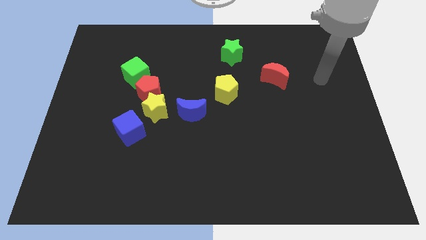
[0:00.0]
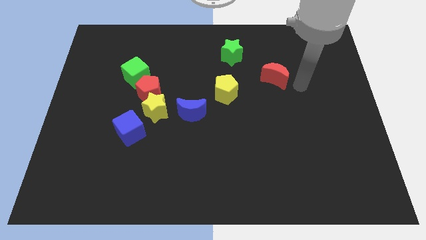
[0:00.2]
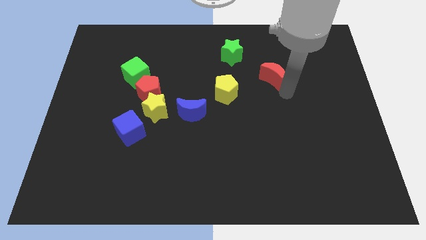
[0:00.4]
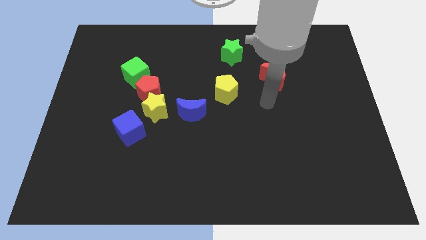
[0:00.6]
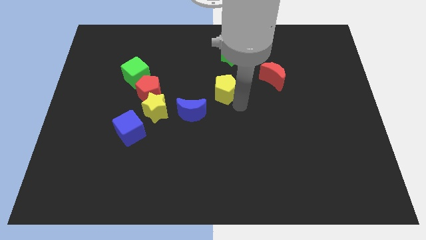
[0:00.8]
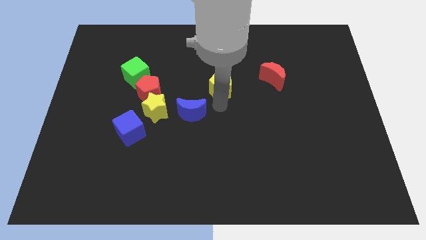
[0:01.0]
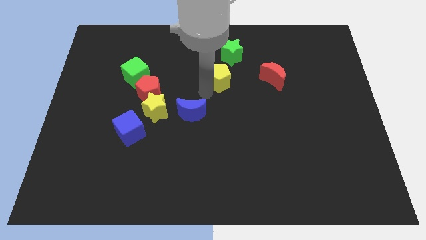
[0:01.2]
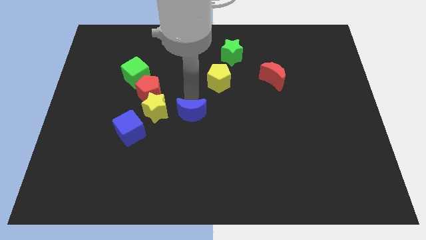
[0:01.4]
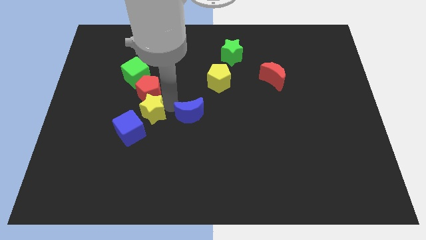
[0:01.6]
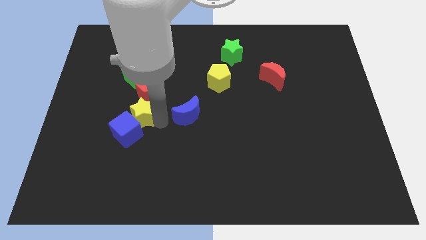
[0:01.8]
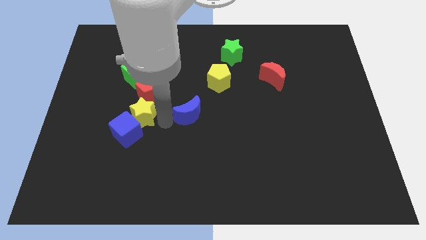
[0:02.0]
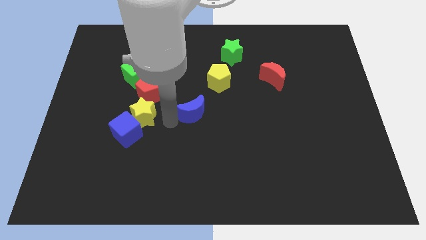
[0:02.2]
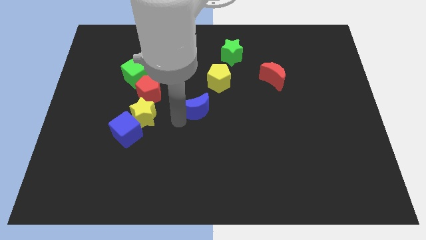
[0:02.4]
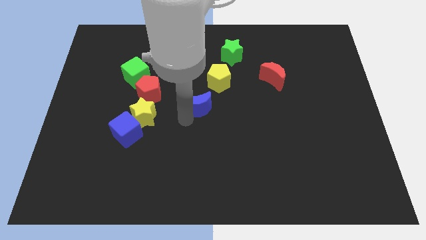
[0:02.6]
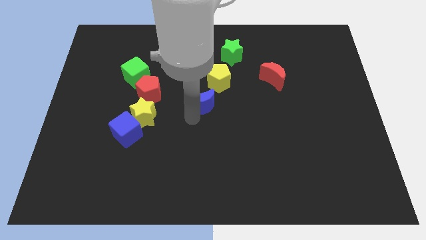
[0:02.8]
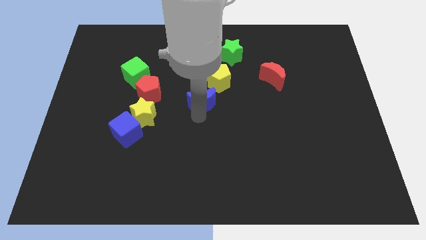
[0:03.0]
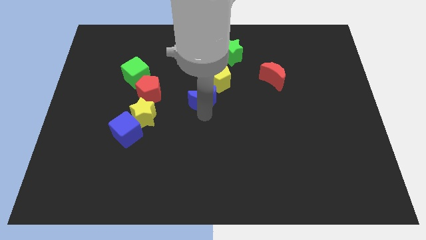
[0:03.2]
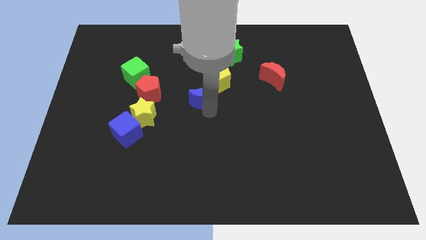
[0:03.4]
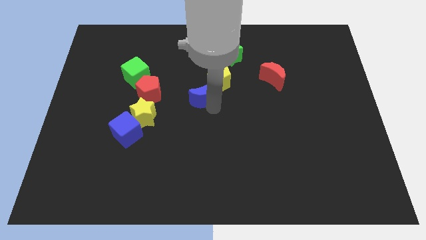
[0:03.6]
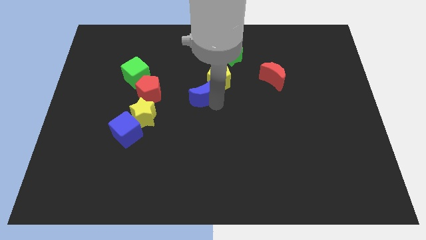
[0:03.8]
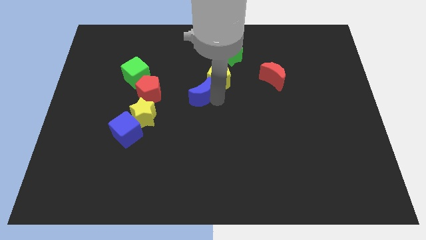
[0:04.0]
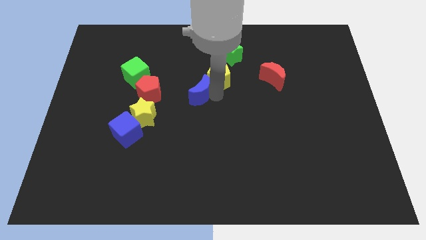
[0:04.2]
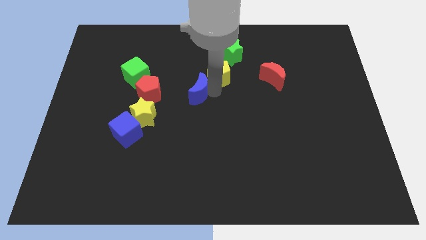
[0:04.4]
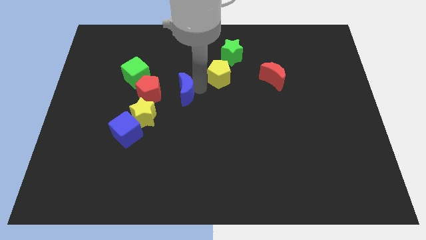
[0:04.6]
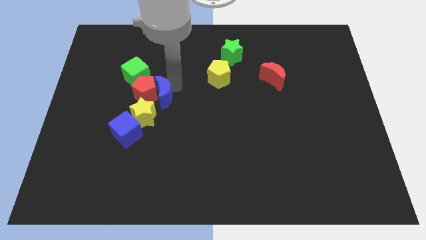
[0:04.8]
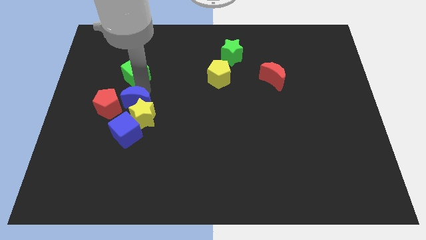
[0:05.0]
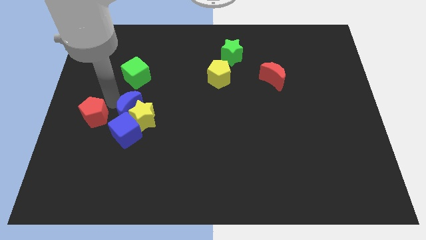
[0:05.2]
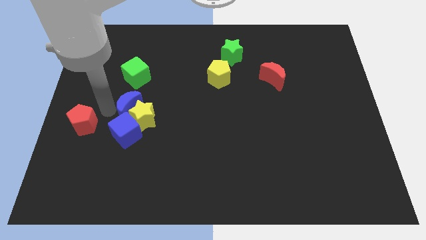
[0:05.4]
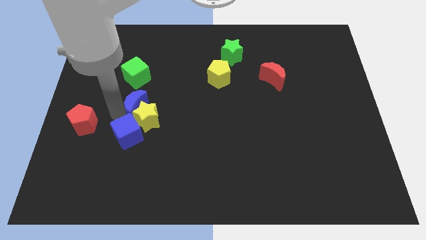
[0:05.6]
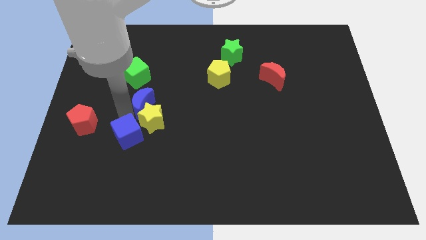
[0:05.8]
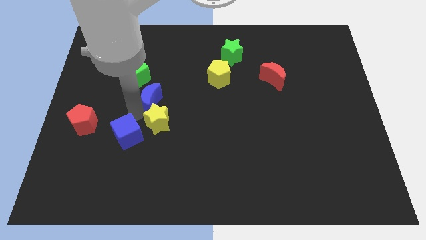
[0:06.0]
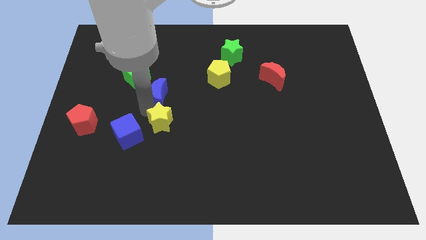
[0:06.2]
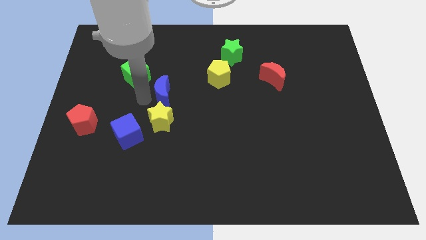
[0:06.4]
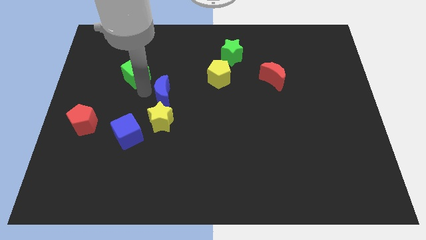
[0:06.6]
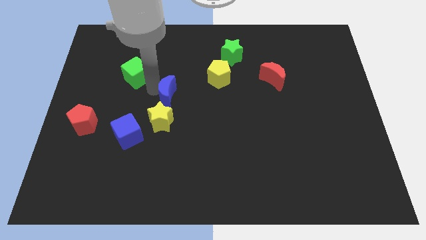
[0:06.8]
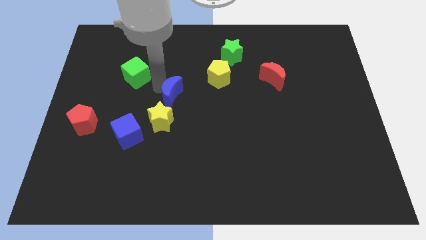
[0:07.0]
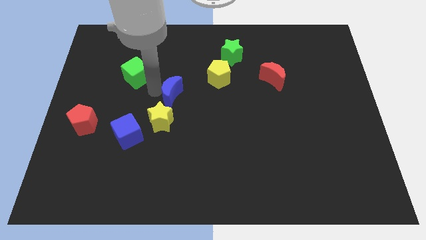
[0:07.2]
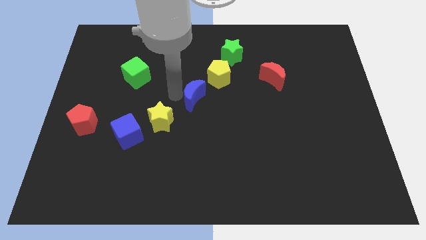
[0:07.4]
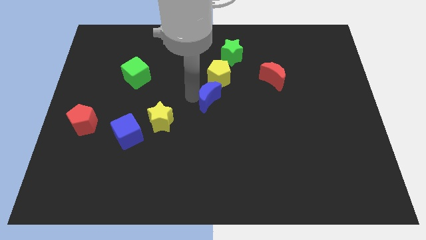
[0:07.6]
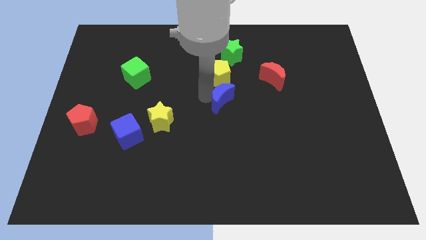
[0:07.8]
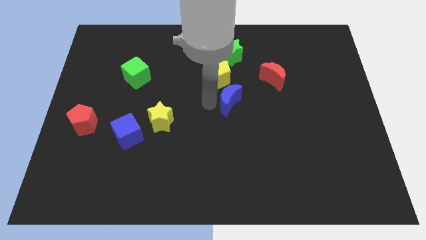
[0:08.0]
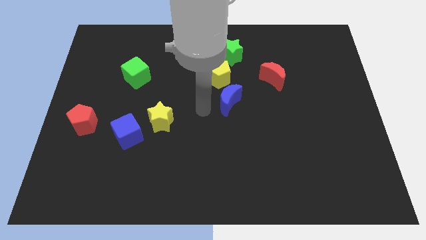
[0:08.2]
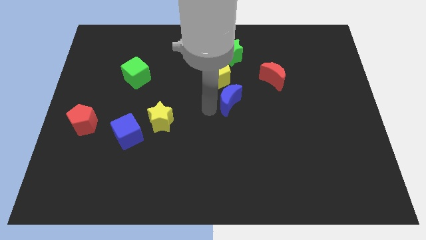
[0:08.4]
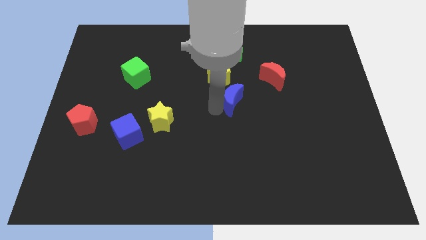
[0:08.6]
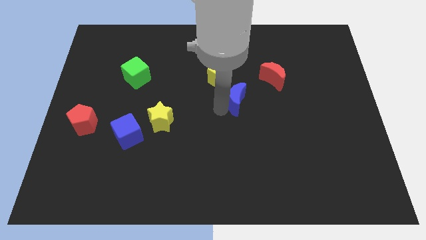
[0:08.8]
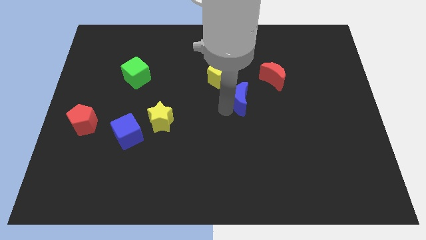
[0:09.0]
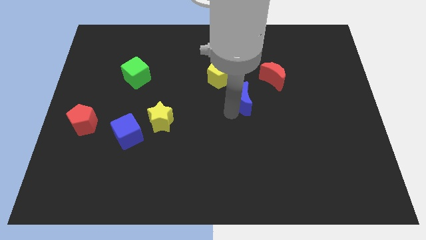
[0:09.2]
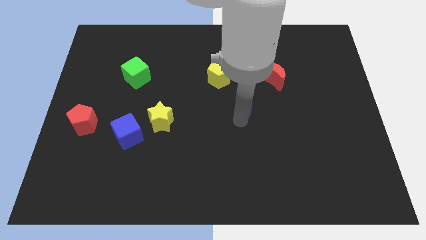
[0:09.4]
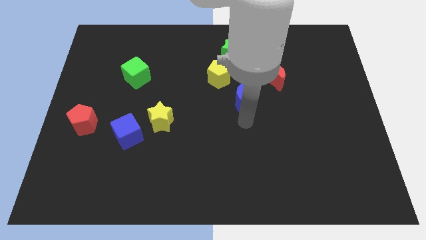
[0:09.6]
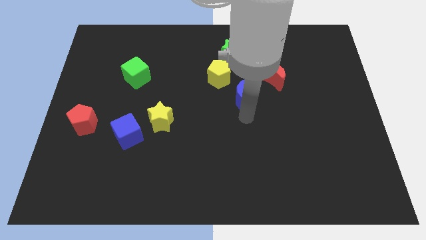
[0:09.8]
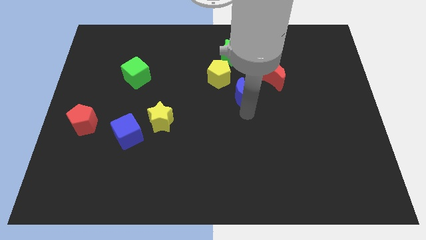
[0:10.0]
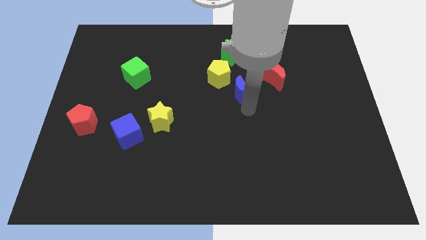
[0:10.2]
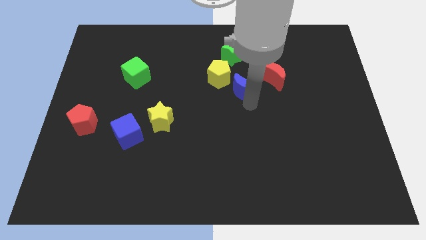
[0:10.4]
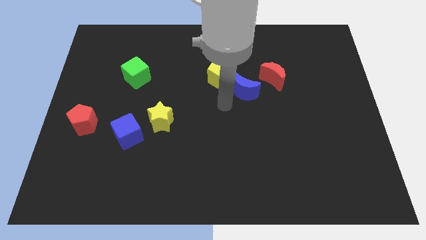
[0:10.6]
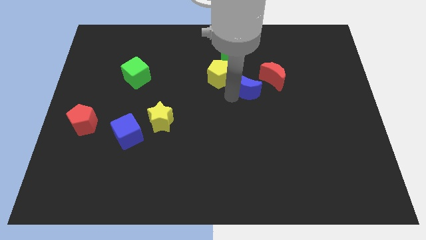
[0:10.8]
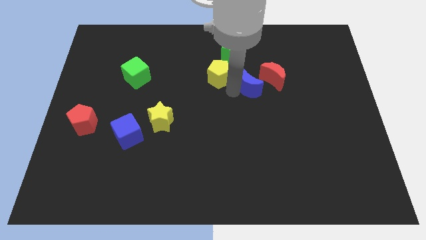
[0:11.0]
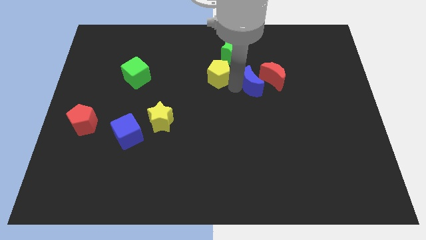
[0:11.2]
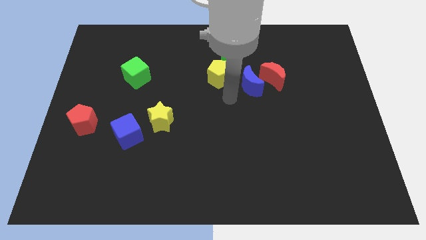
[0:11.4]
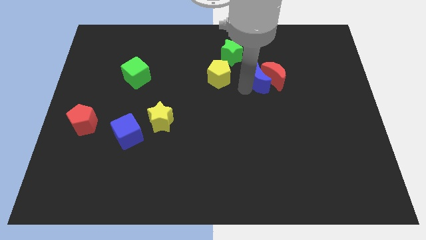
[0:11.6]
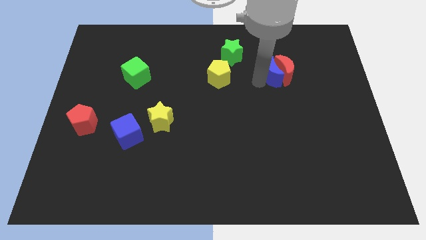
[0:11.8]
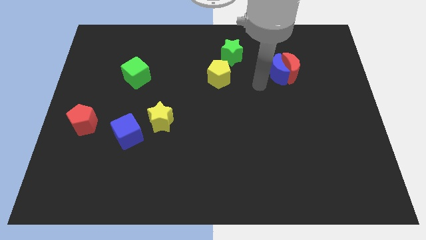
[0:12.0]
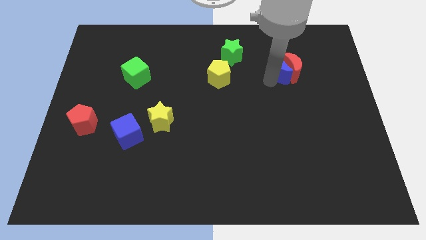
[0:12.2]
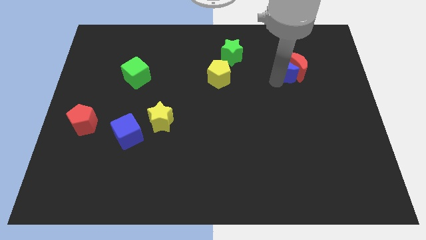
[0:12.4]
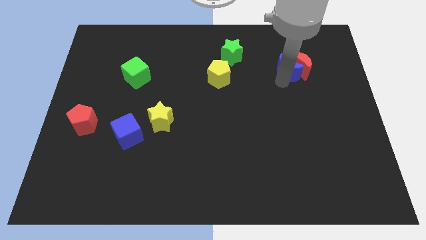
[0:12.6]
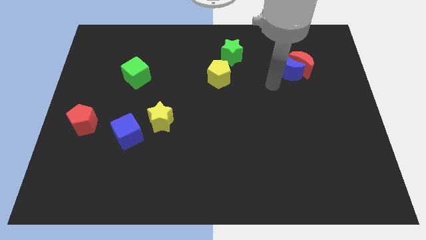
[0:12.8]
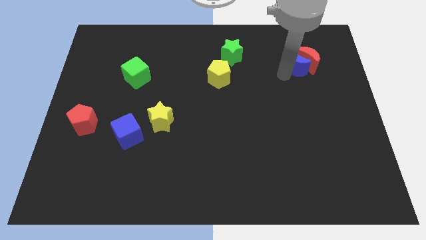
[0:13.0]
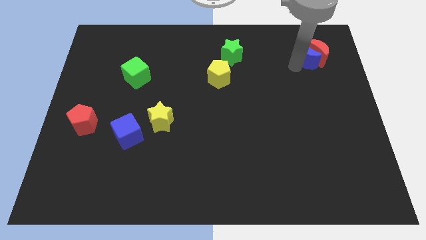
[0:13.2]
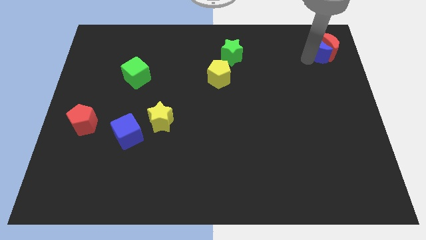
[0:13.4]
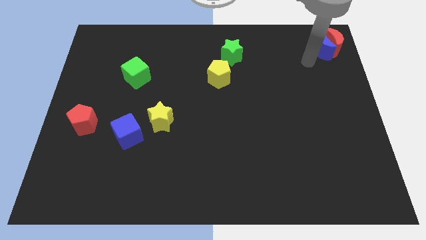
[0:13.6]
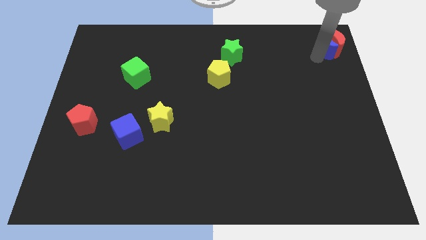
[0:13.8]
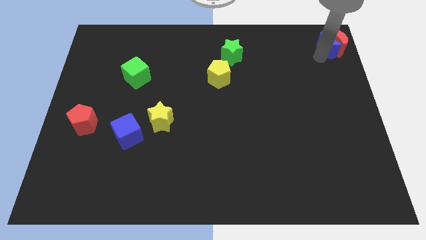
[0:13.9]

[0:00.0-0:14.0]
slide the blue moon to the top right
